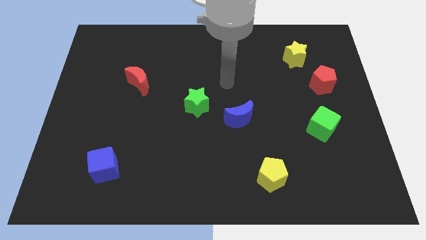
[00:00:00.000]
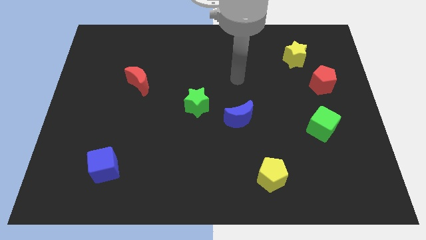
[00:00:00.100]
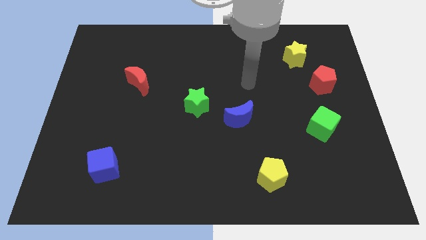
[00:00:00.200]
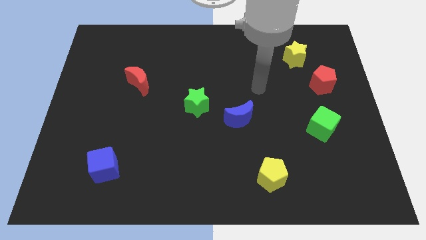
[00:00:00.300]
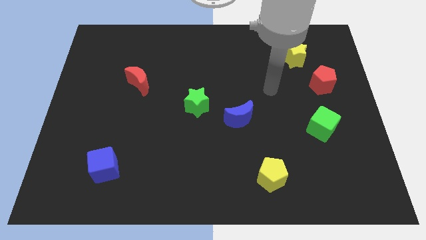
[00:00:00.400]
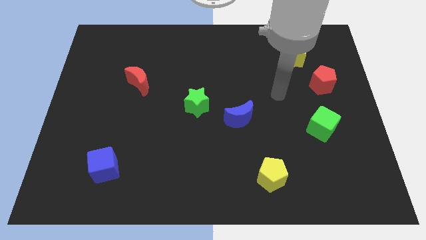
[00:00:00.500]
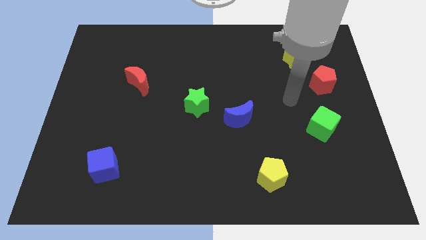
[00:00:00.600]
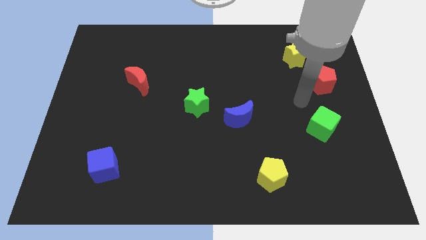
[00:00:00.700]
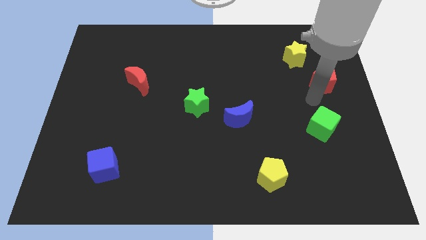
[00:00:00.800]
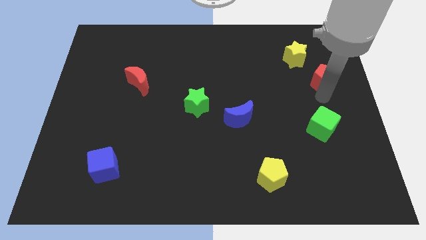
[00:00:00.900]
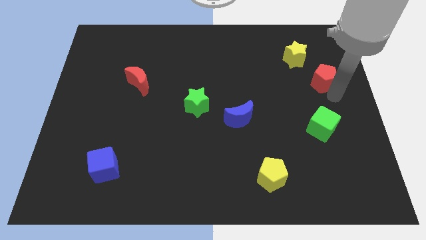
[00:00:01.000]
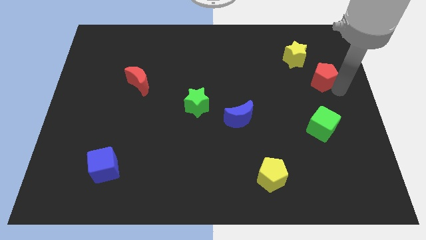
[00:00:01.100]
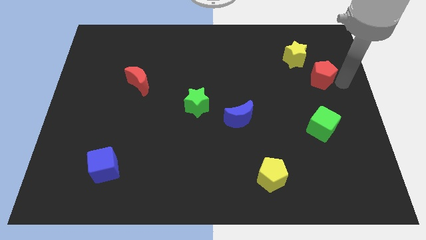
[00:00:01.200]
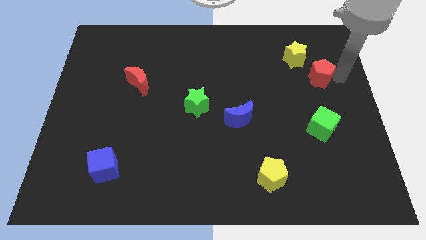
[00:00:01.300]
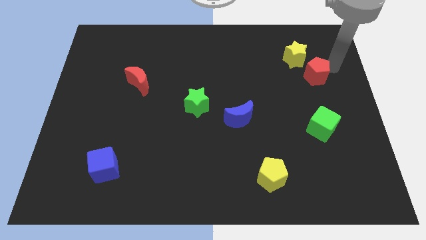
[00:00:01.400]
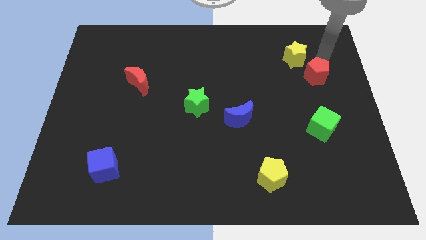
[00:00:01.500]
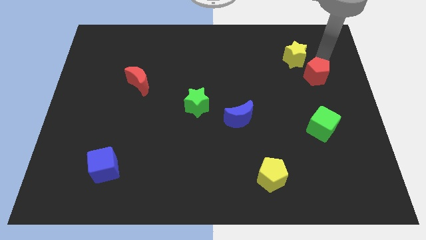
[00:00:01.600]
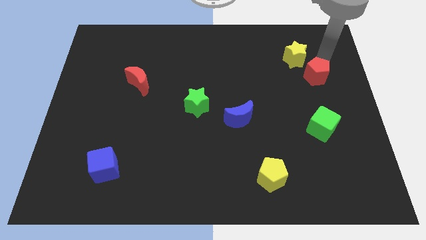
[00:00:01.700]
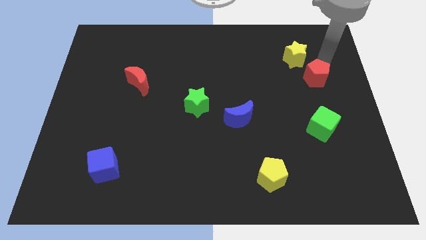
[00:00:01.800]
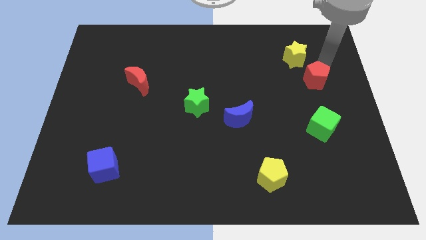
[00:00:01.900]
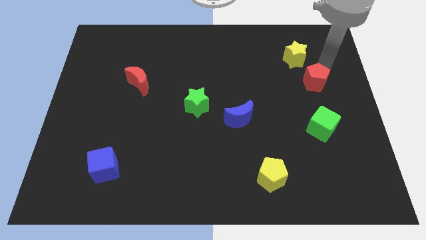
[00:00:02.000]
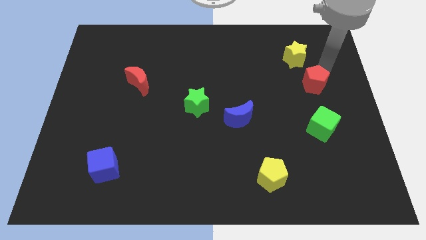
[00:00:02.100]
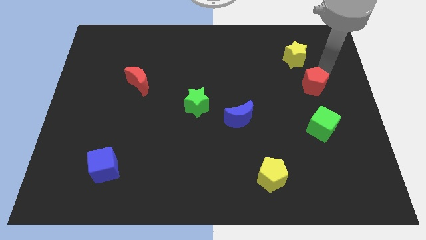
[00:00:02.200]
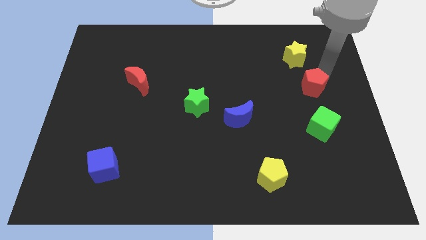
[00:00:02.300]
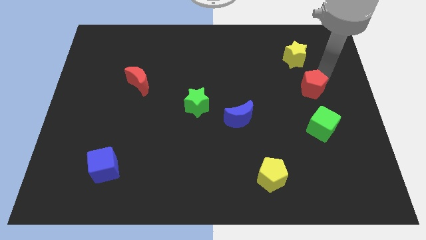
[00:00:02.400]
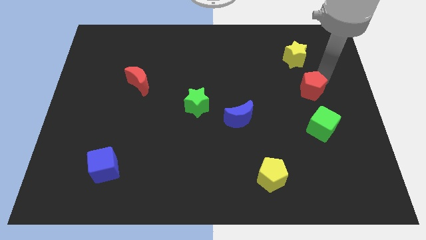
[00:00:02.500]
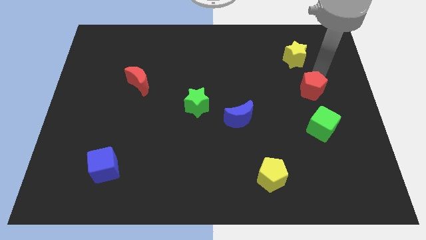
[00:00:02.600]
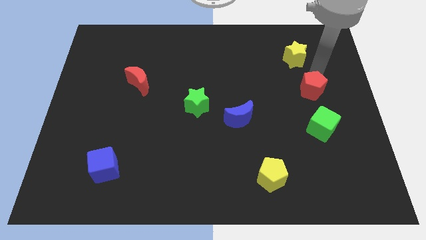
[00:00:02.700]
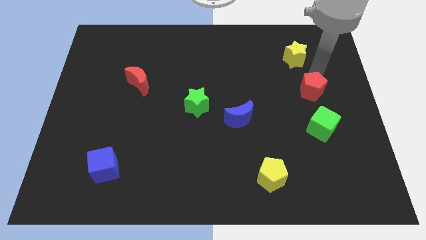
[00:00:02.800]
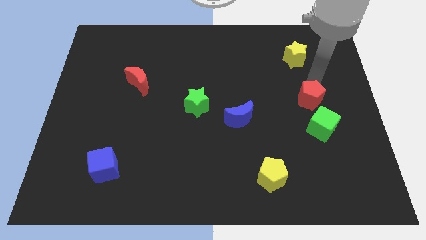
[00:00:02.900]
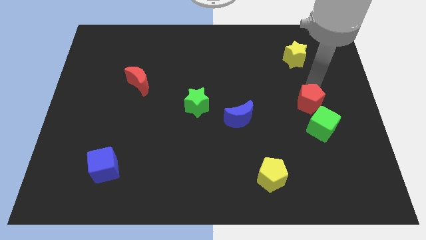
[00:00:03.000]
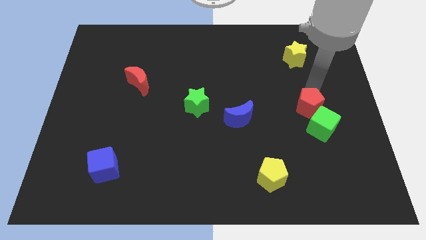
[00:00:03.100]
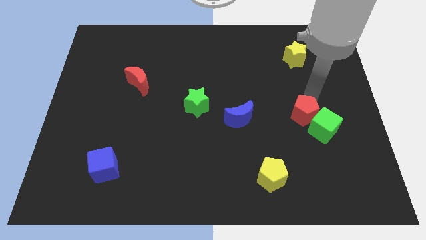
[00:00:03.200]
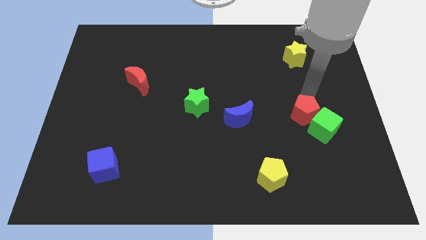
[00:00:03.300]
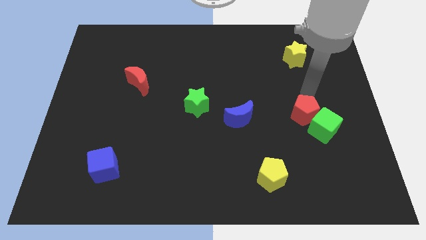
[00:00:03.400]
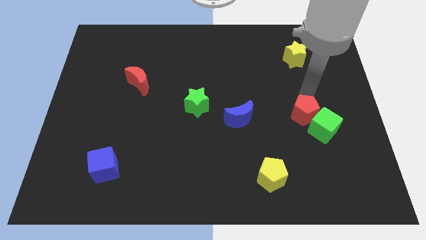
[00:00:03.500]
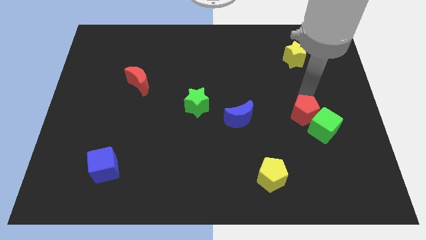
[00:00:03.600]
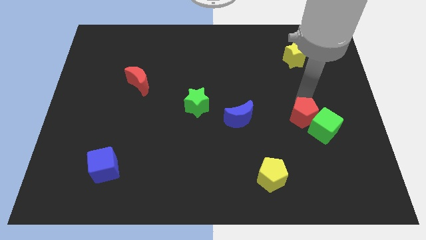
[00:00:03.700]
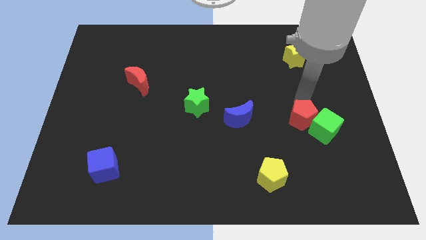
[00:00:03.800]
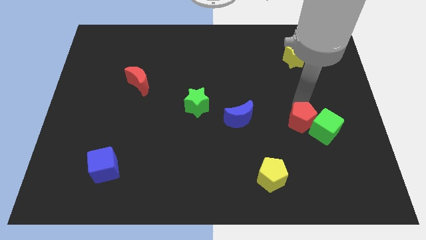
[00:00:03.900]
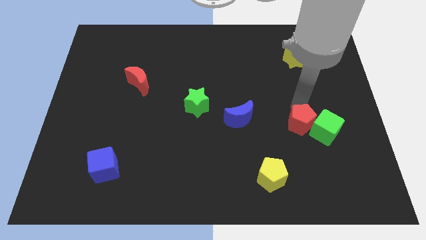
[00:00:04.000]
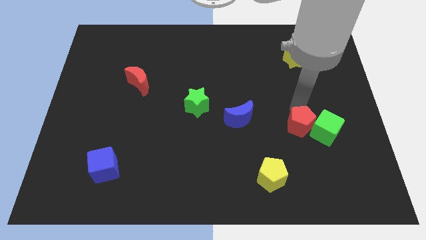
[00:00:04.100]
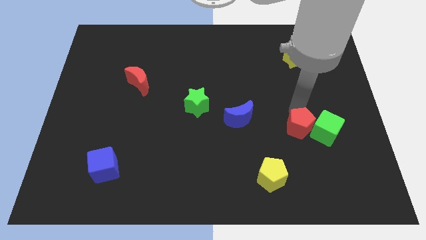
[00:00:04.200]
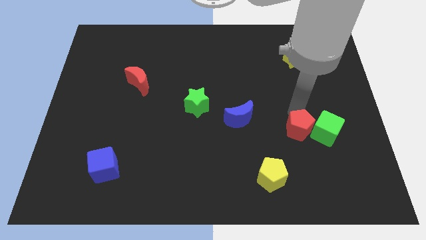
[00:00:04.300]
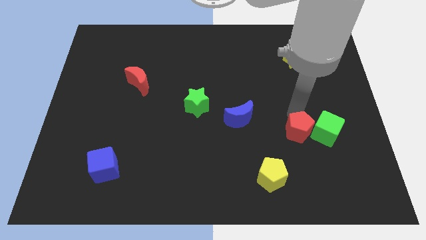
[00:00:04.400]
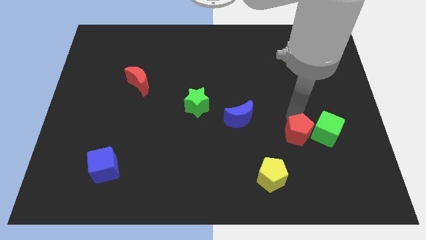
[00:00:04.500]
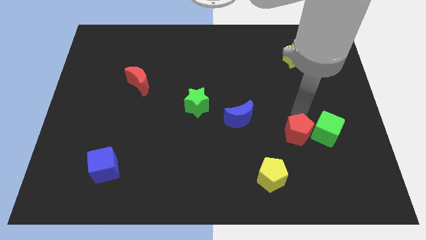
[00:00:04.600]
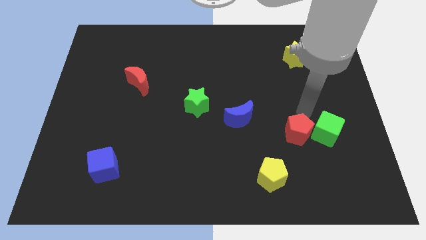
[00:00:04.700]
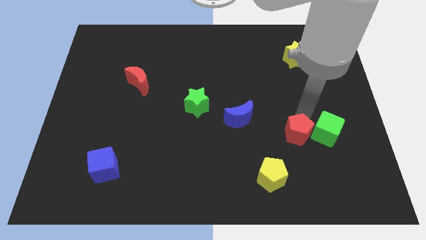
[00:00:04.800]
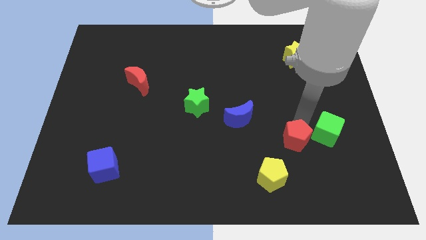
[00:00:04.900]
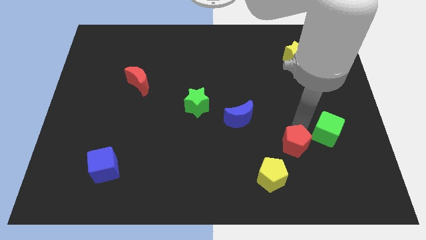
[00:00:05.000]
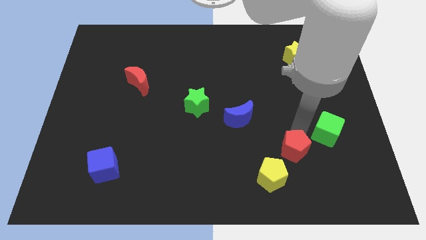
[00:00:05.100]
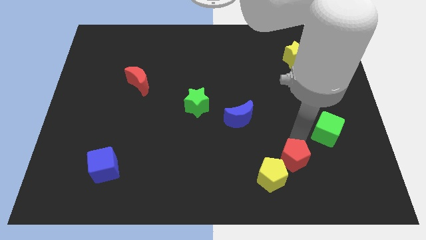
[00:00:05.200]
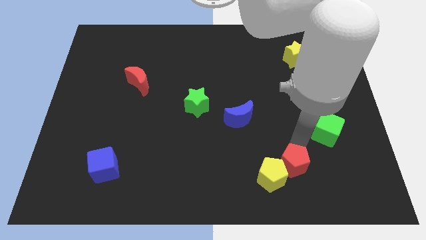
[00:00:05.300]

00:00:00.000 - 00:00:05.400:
slide the red pentagon close to the yellow pentagon

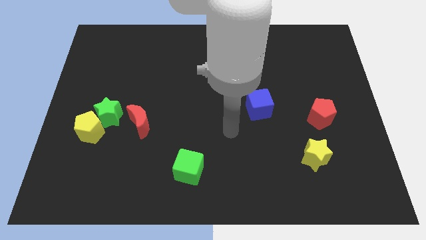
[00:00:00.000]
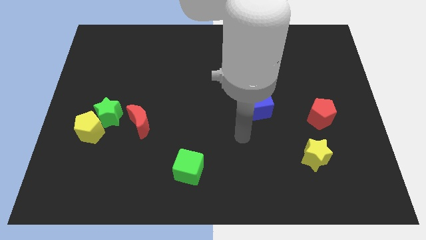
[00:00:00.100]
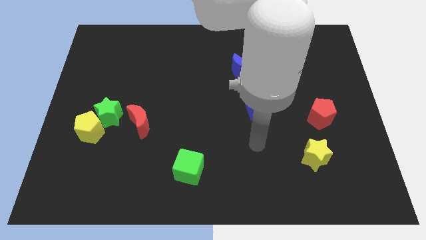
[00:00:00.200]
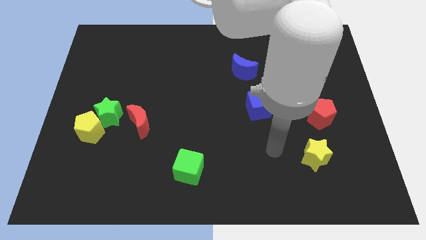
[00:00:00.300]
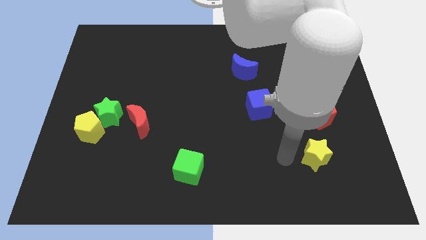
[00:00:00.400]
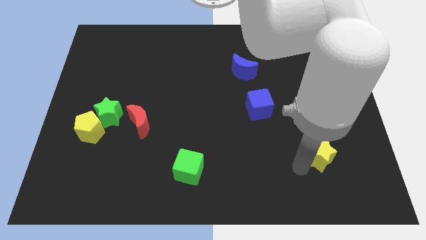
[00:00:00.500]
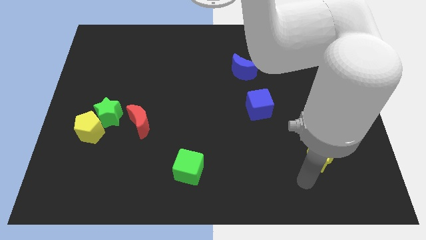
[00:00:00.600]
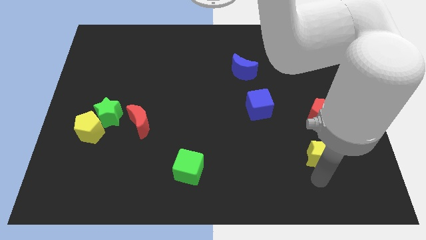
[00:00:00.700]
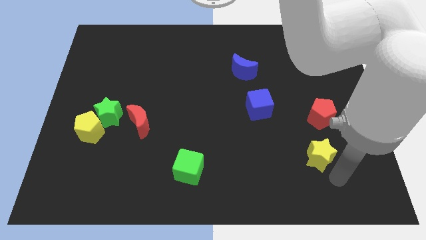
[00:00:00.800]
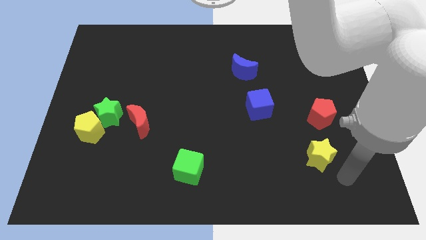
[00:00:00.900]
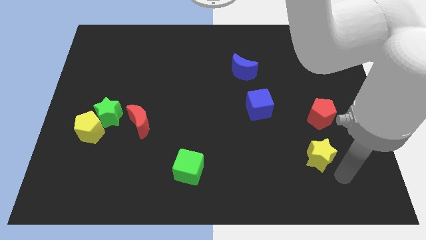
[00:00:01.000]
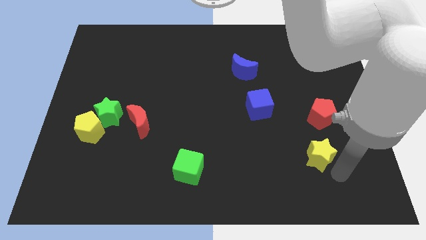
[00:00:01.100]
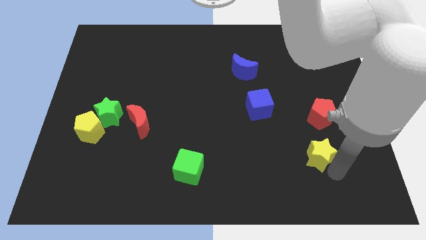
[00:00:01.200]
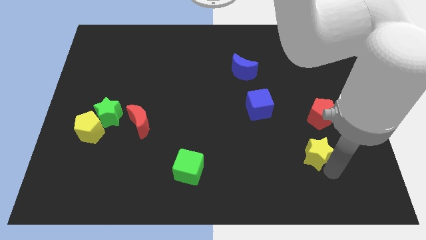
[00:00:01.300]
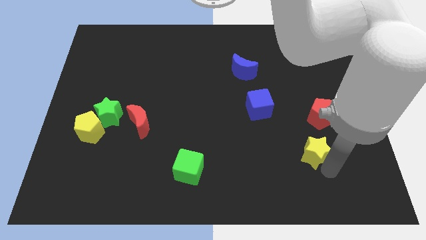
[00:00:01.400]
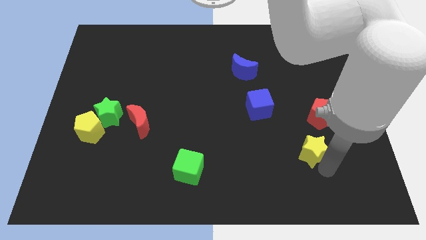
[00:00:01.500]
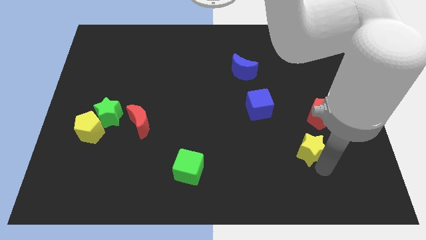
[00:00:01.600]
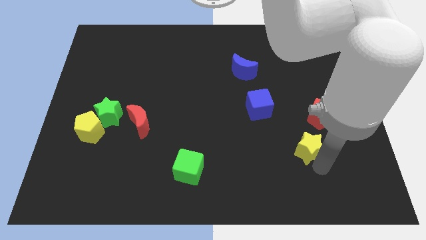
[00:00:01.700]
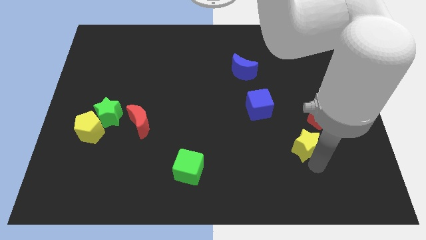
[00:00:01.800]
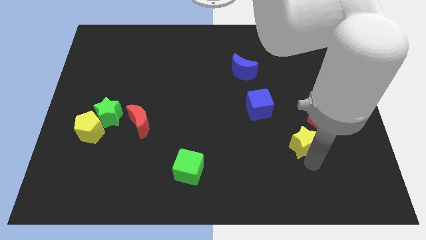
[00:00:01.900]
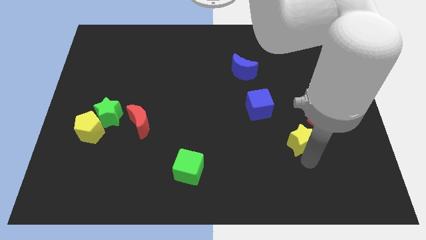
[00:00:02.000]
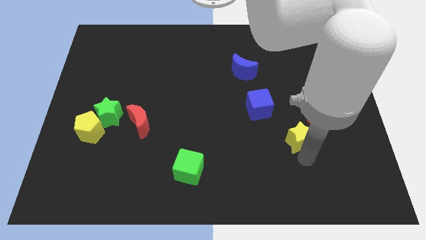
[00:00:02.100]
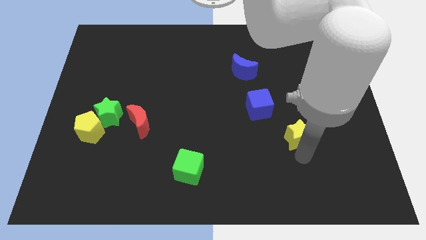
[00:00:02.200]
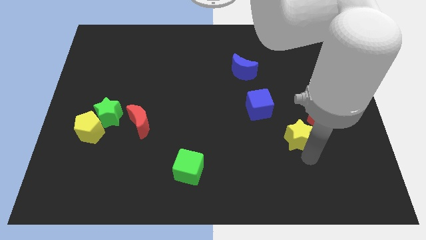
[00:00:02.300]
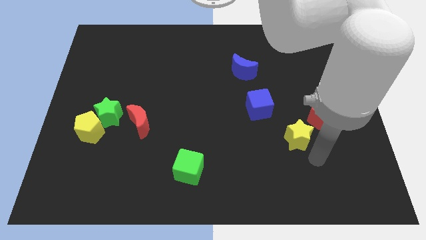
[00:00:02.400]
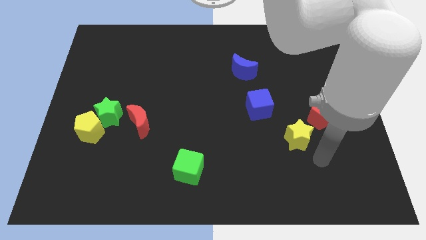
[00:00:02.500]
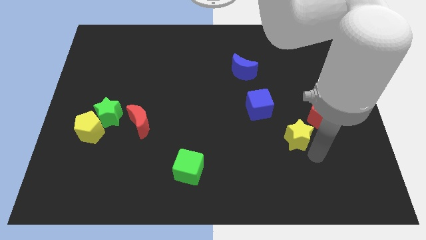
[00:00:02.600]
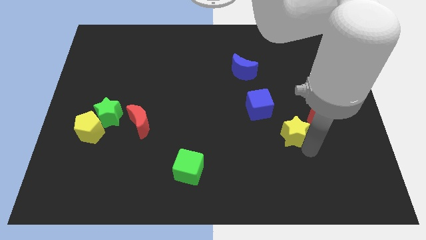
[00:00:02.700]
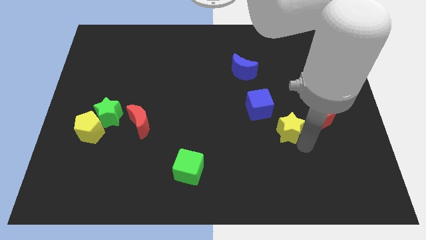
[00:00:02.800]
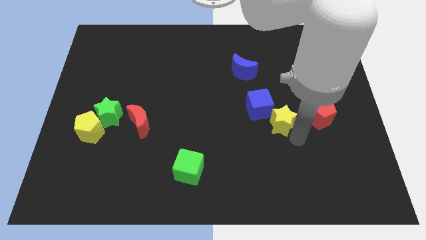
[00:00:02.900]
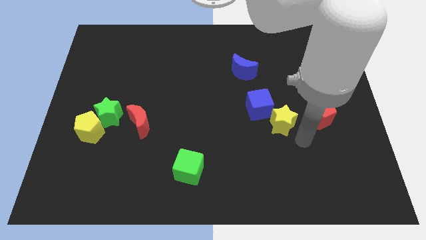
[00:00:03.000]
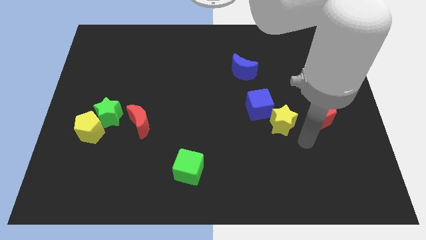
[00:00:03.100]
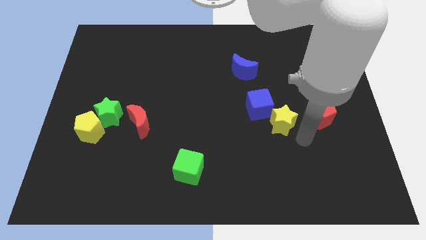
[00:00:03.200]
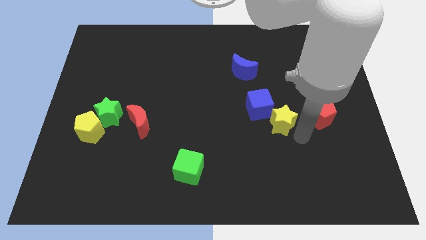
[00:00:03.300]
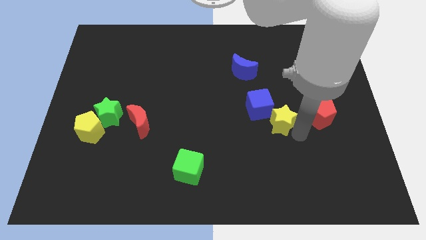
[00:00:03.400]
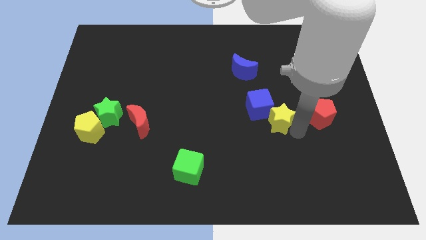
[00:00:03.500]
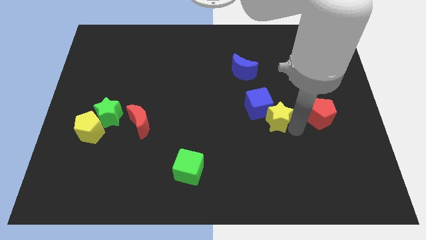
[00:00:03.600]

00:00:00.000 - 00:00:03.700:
move the yellow star next to the blue cube
